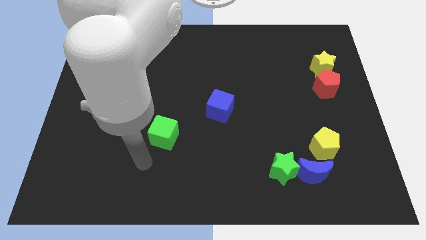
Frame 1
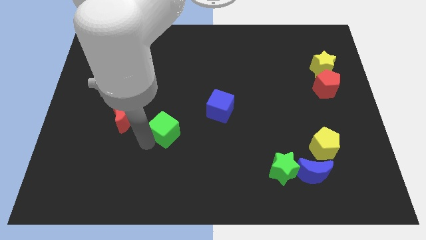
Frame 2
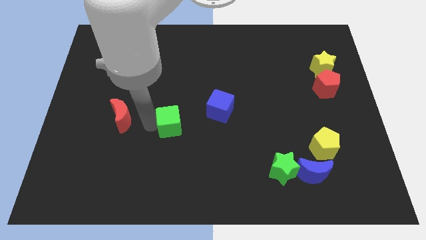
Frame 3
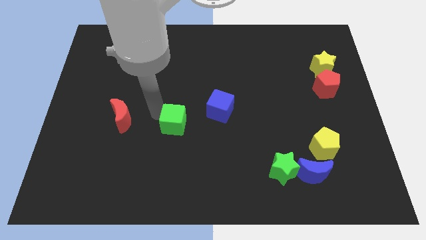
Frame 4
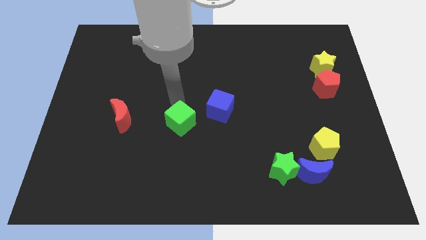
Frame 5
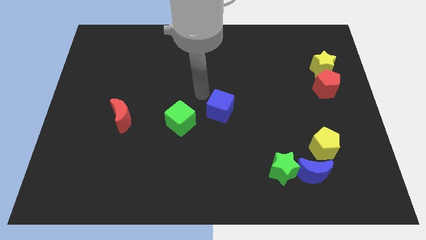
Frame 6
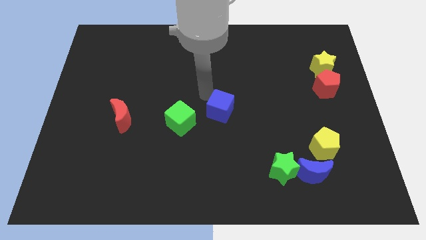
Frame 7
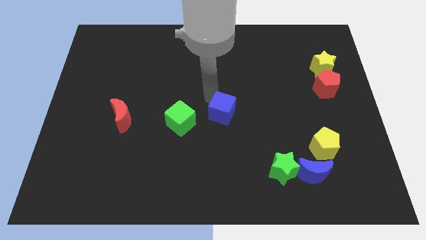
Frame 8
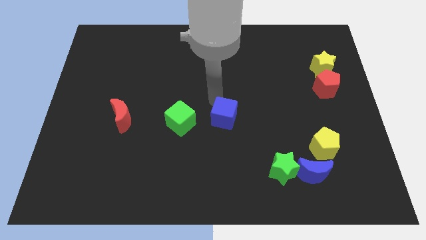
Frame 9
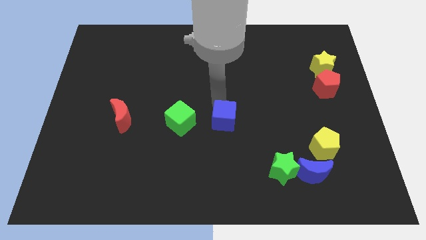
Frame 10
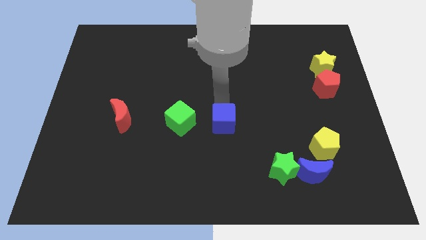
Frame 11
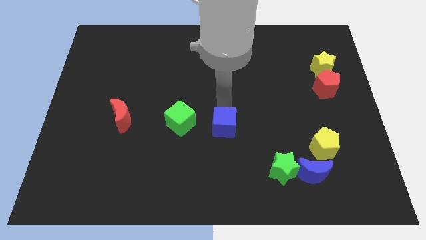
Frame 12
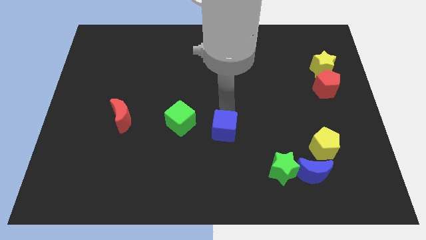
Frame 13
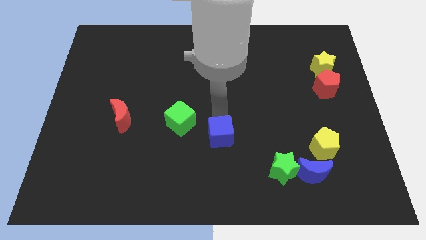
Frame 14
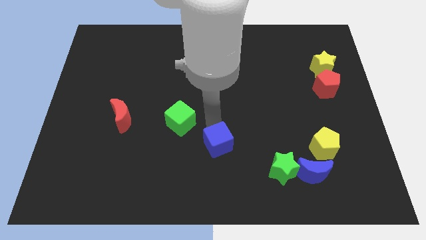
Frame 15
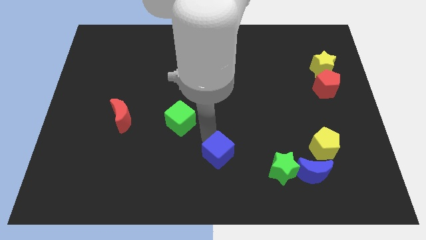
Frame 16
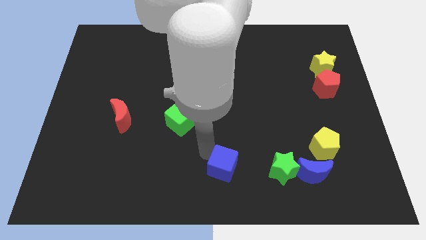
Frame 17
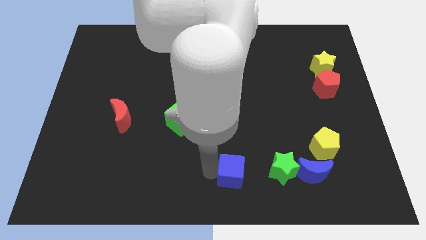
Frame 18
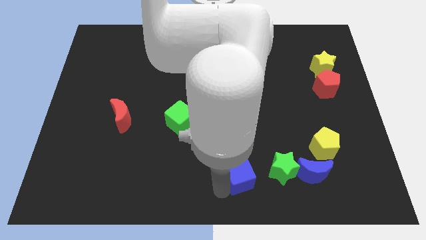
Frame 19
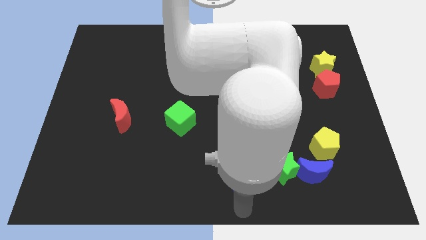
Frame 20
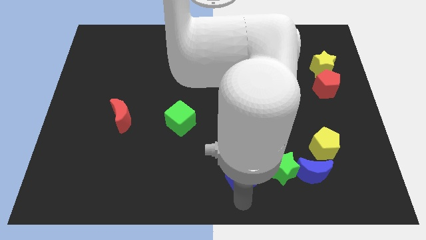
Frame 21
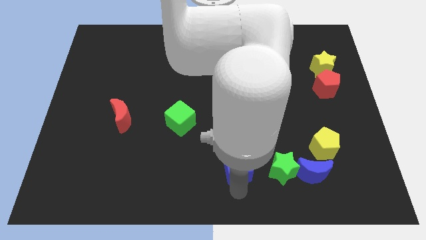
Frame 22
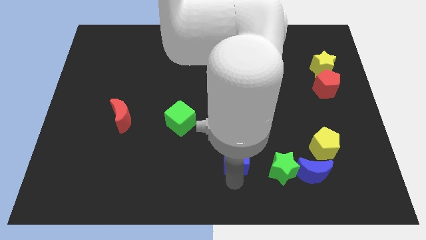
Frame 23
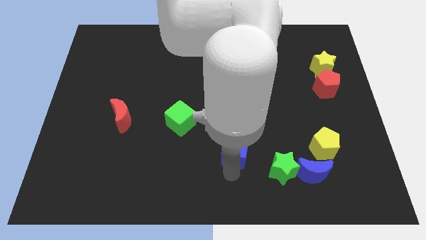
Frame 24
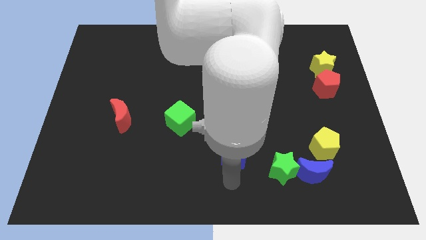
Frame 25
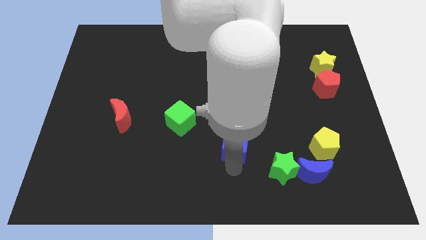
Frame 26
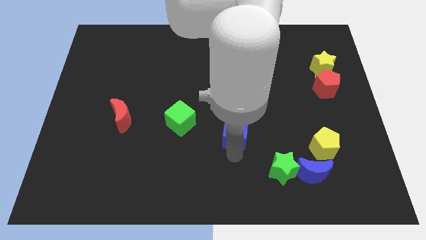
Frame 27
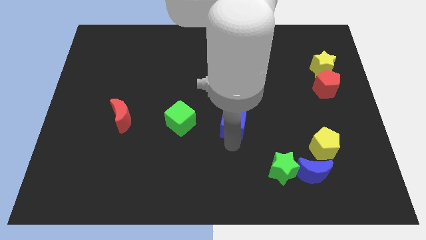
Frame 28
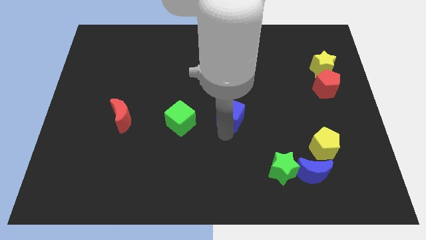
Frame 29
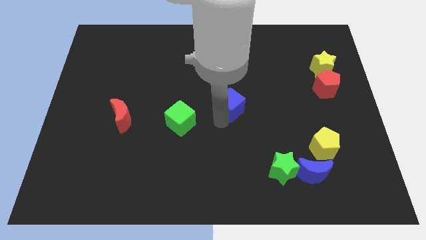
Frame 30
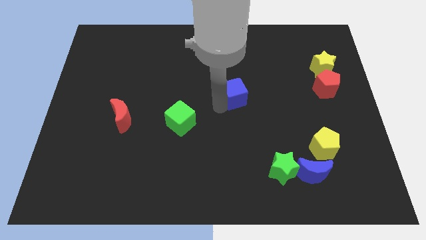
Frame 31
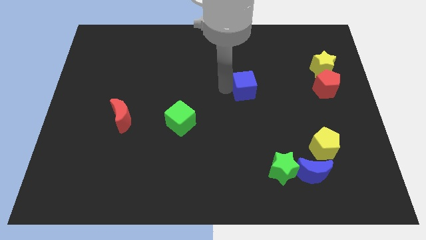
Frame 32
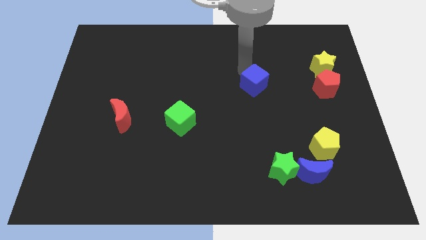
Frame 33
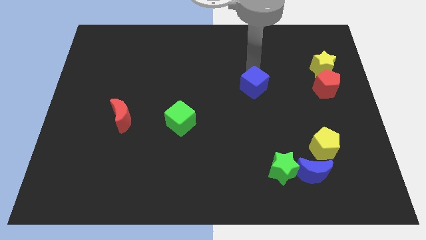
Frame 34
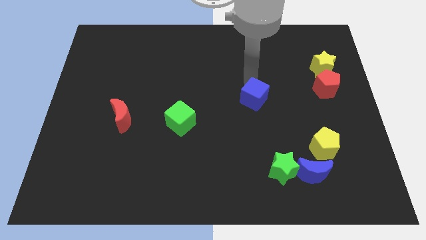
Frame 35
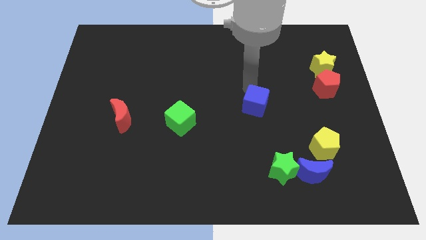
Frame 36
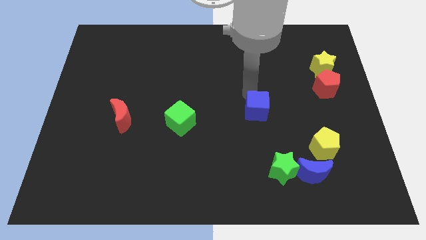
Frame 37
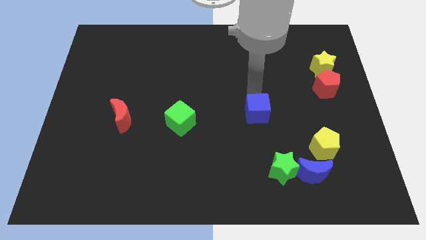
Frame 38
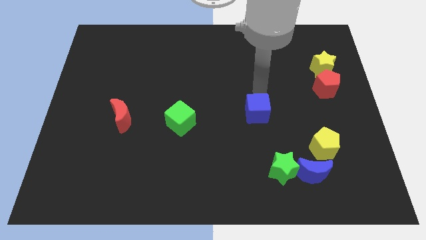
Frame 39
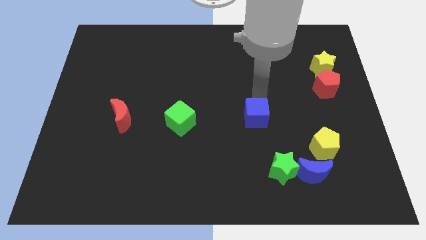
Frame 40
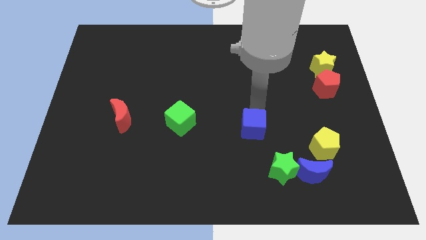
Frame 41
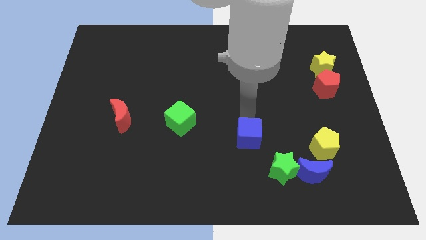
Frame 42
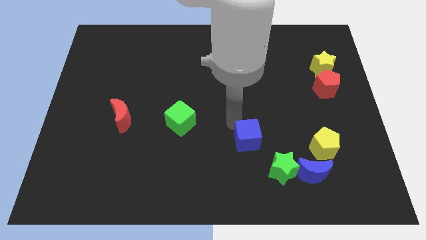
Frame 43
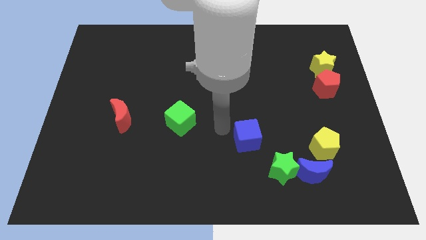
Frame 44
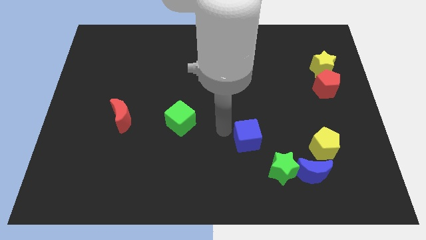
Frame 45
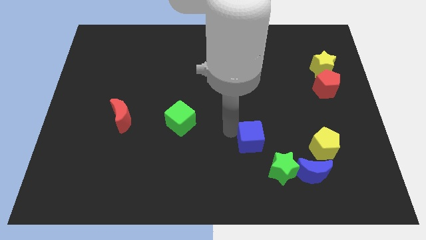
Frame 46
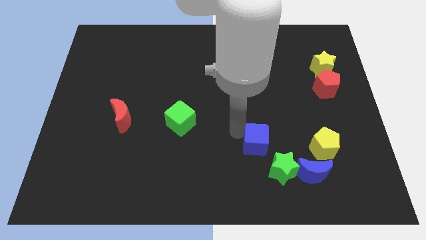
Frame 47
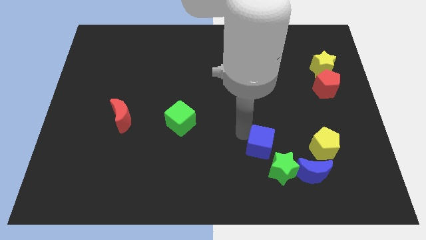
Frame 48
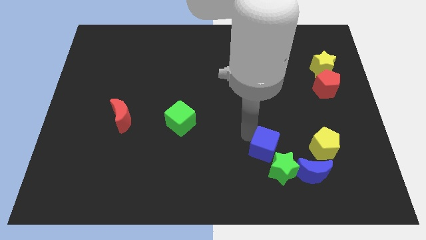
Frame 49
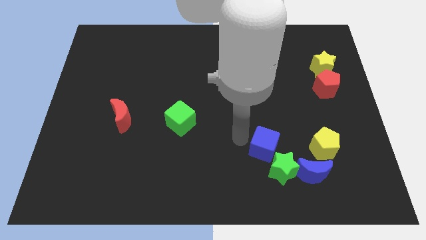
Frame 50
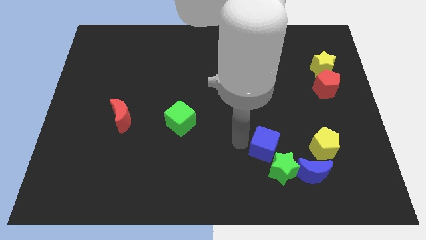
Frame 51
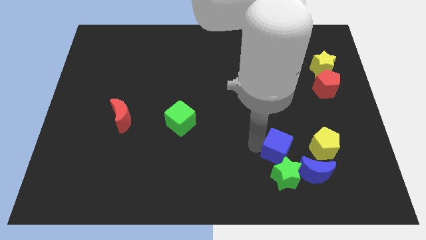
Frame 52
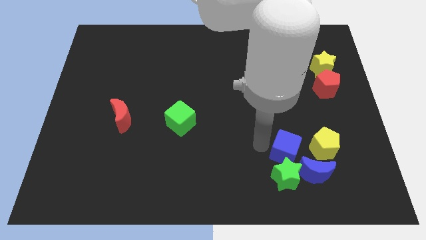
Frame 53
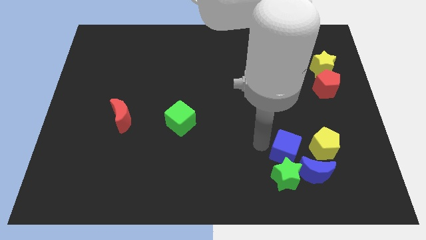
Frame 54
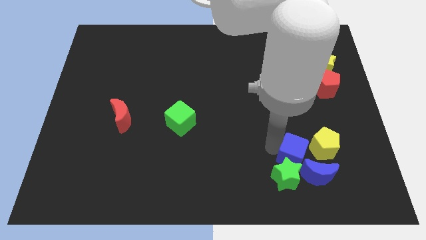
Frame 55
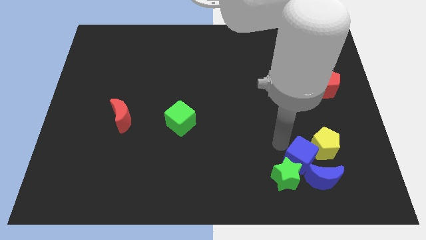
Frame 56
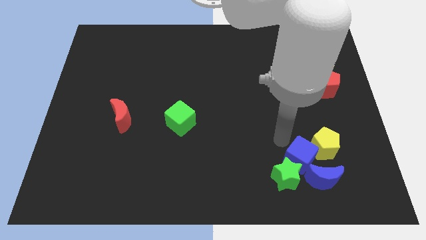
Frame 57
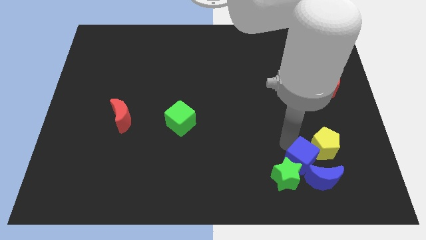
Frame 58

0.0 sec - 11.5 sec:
slide the blue cube towards the blue moon

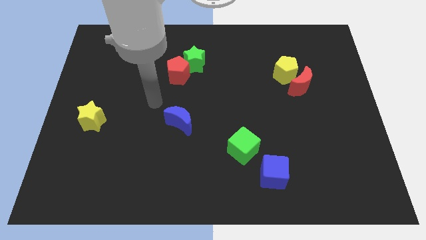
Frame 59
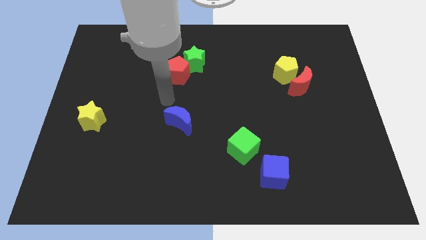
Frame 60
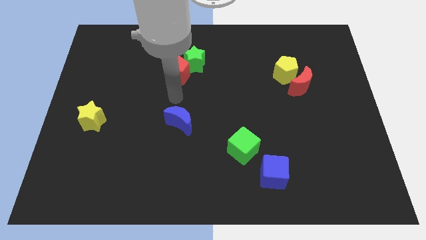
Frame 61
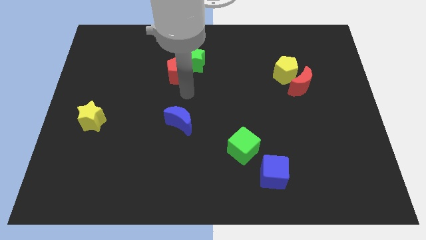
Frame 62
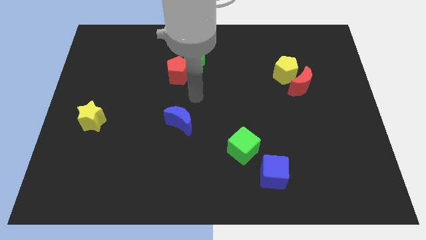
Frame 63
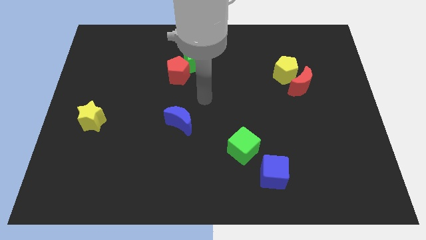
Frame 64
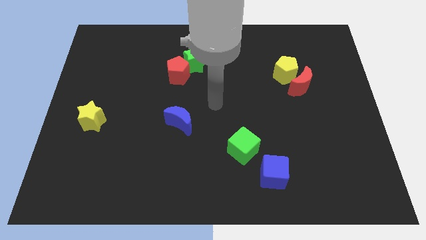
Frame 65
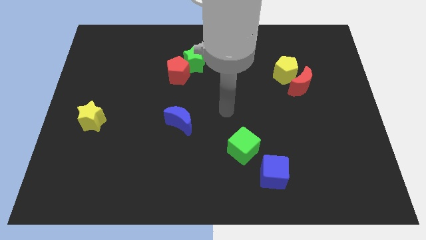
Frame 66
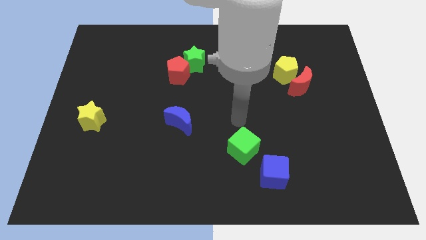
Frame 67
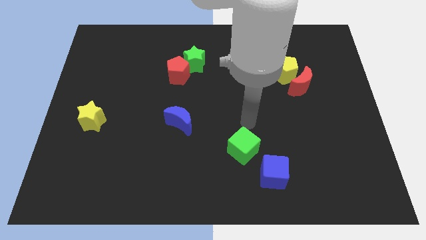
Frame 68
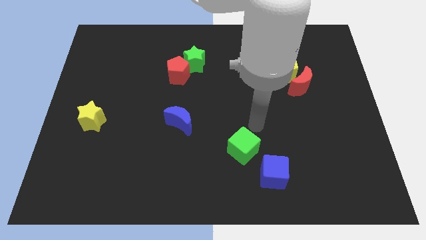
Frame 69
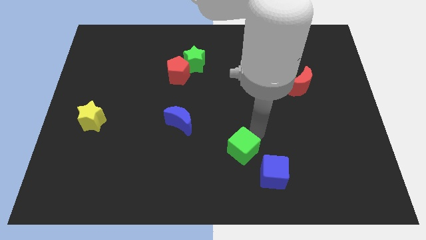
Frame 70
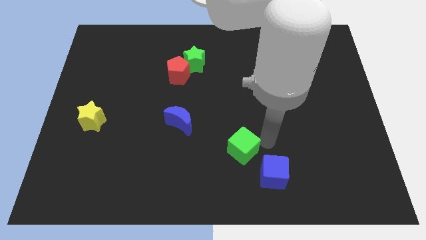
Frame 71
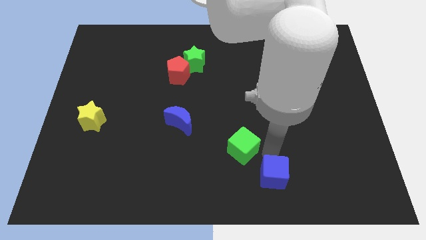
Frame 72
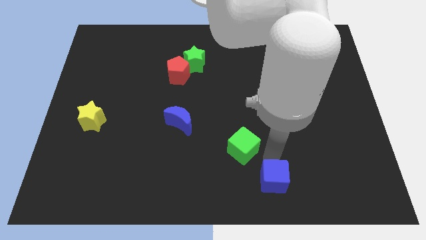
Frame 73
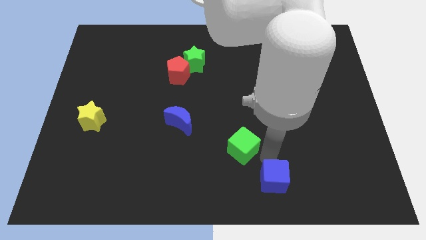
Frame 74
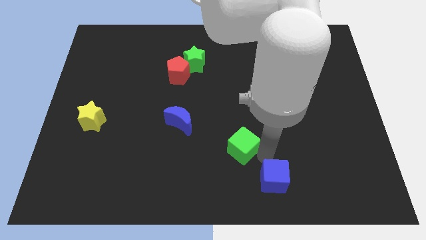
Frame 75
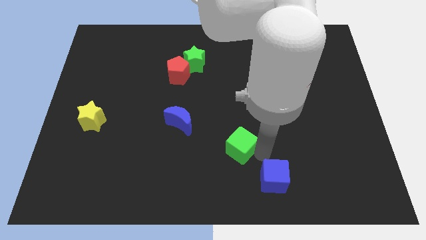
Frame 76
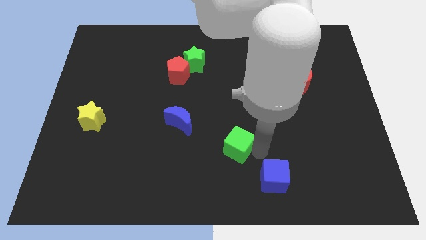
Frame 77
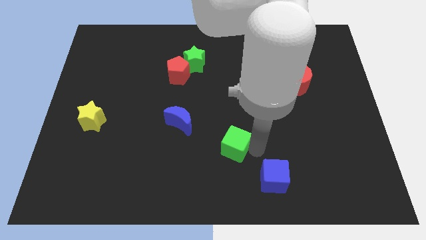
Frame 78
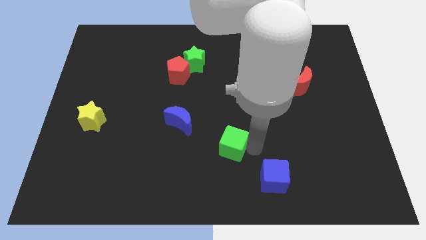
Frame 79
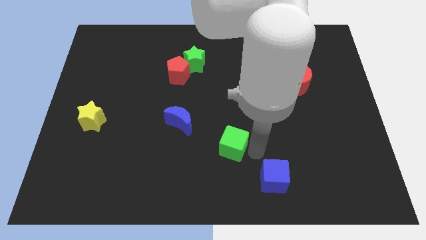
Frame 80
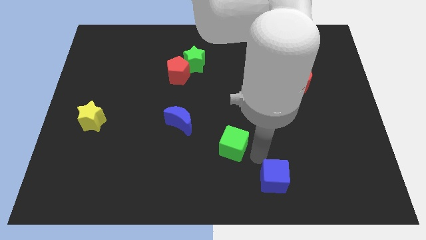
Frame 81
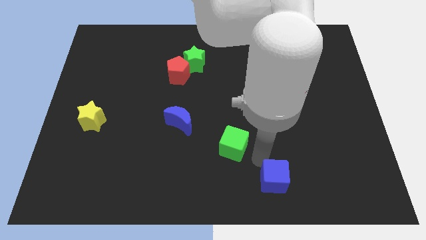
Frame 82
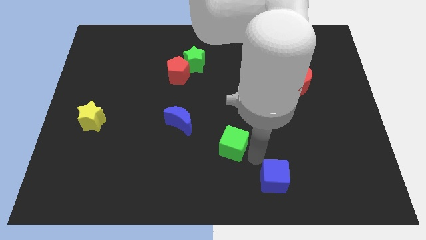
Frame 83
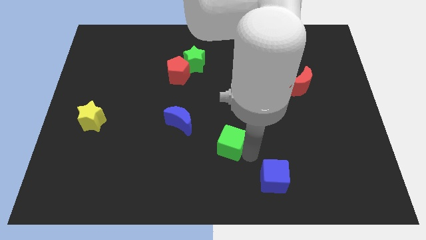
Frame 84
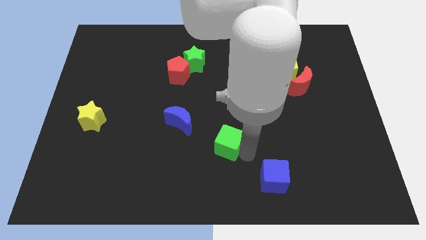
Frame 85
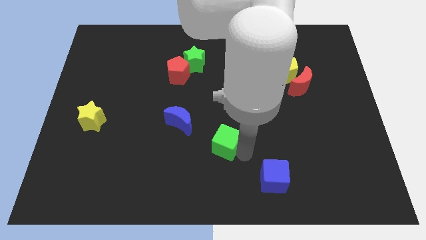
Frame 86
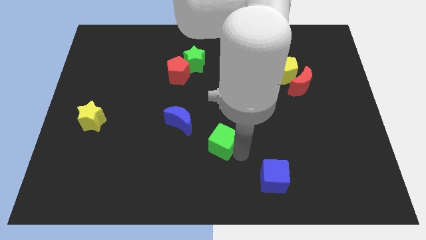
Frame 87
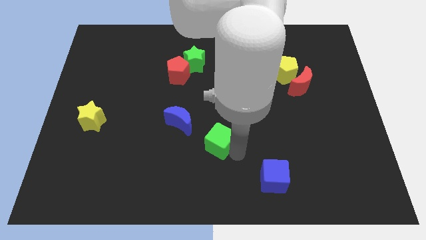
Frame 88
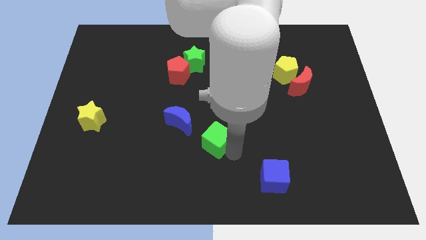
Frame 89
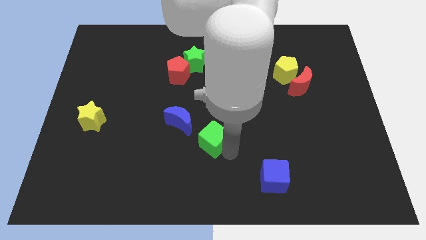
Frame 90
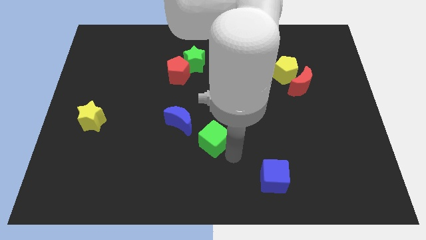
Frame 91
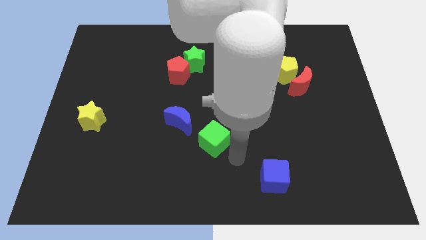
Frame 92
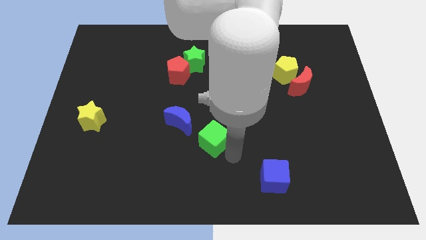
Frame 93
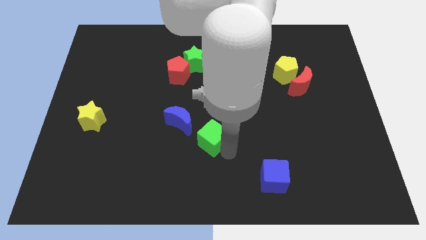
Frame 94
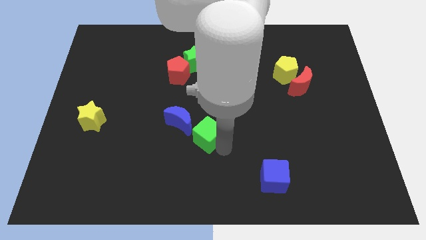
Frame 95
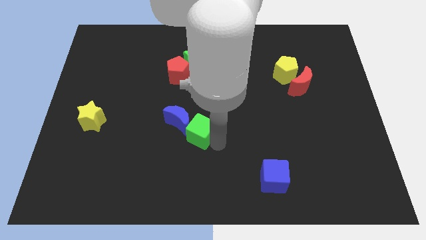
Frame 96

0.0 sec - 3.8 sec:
push the green cube towards the blue moon
